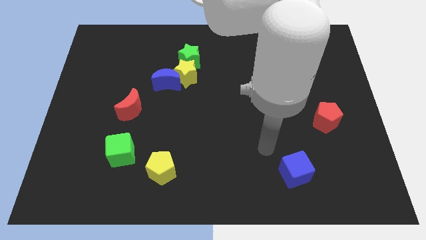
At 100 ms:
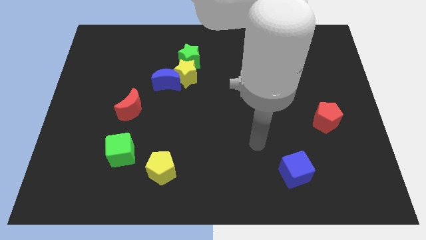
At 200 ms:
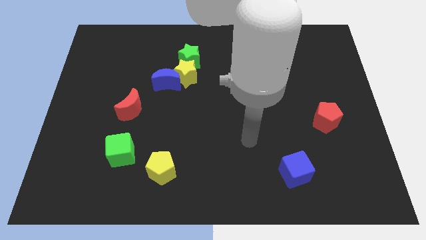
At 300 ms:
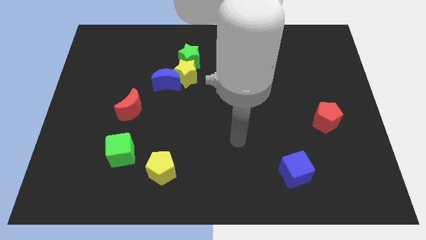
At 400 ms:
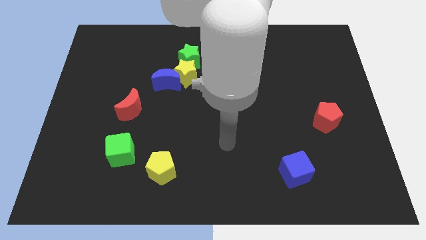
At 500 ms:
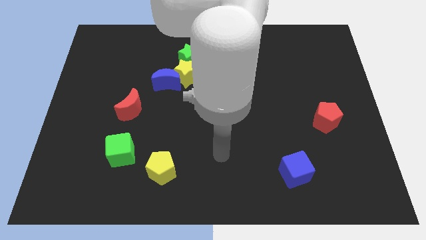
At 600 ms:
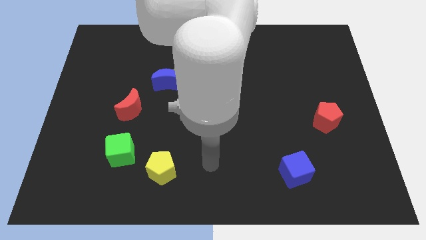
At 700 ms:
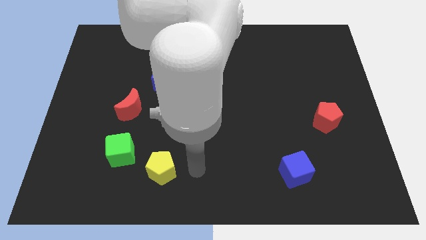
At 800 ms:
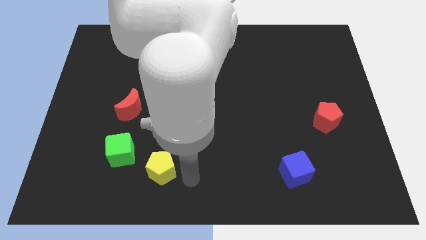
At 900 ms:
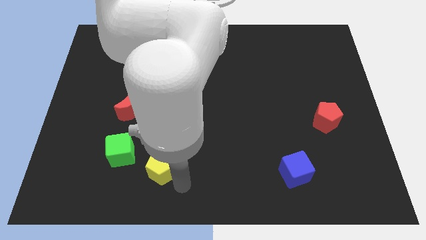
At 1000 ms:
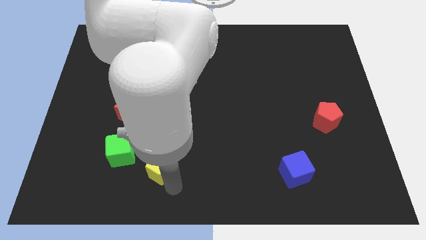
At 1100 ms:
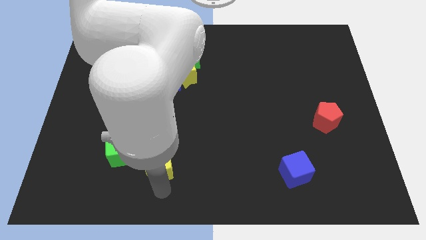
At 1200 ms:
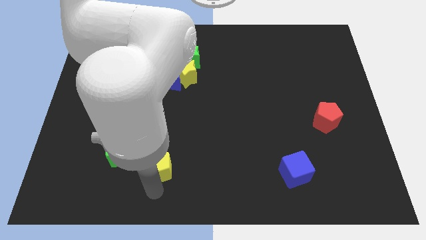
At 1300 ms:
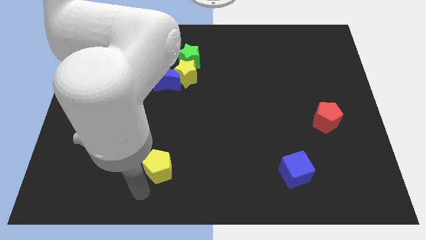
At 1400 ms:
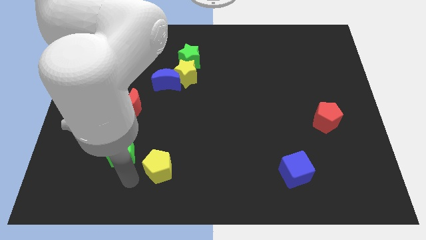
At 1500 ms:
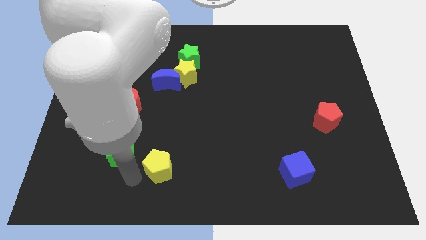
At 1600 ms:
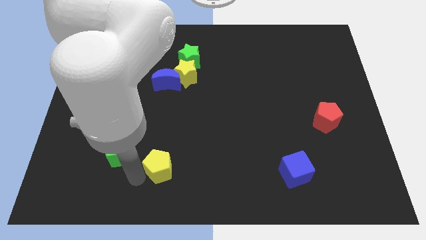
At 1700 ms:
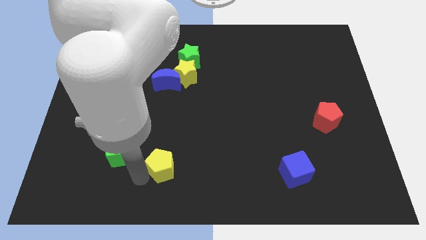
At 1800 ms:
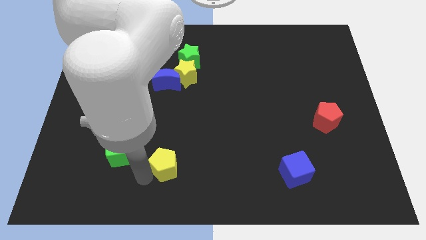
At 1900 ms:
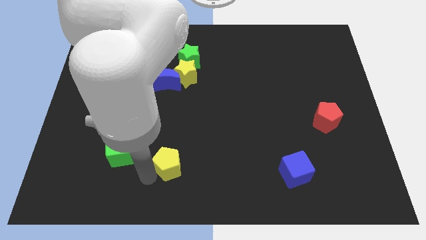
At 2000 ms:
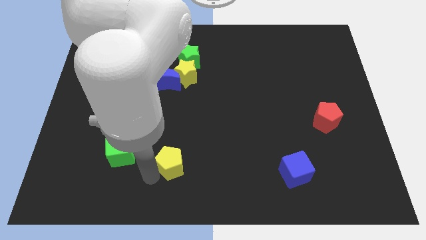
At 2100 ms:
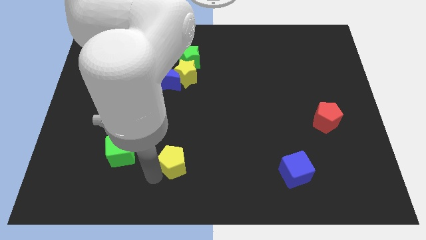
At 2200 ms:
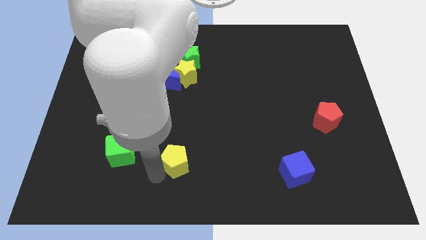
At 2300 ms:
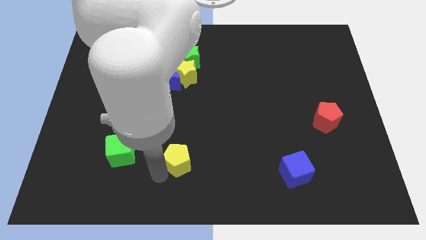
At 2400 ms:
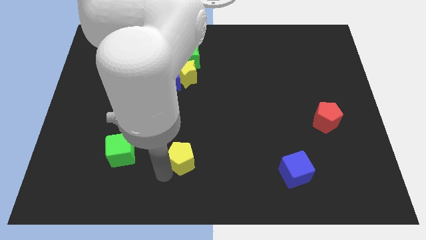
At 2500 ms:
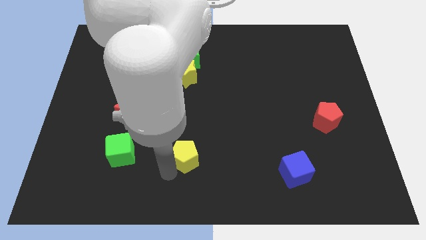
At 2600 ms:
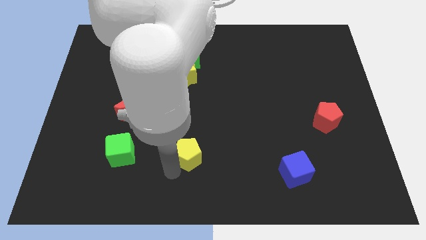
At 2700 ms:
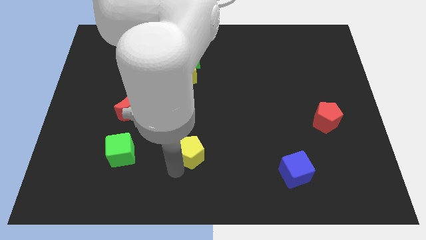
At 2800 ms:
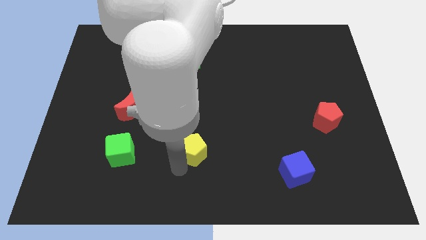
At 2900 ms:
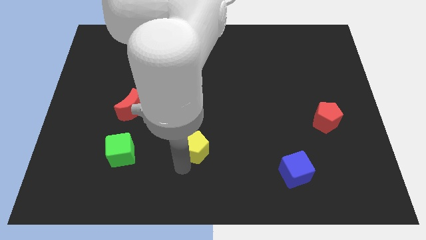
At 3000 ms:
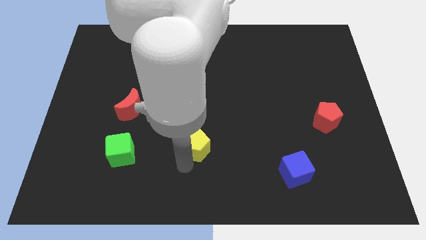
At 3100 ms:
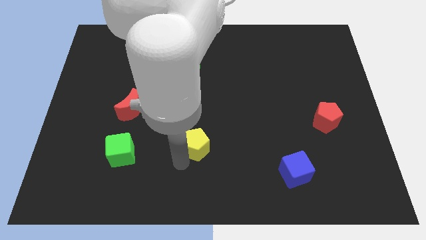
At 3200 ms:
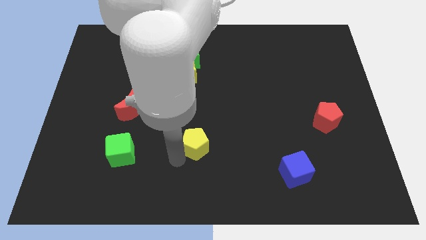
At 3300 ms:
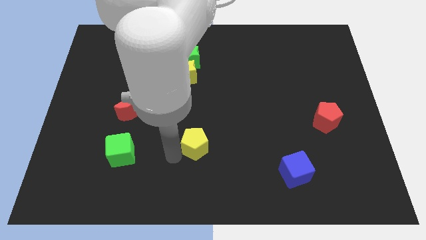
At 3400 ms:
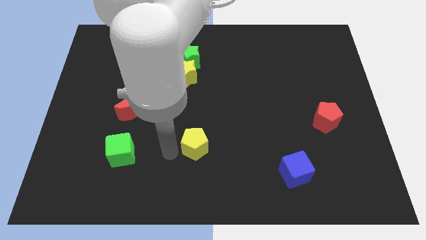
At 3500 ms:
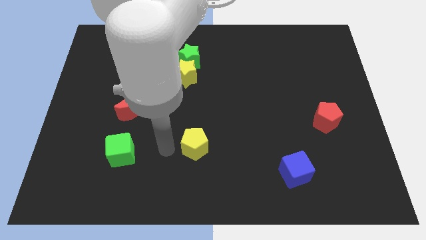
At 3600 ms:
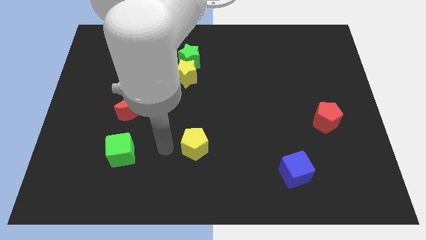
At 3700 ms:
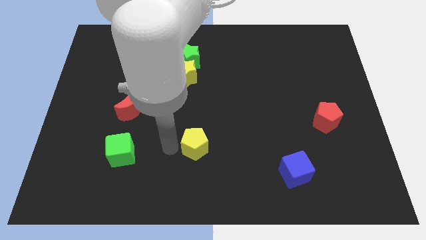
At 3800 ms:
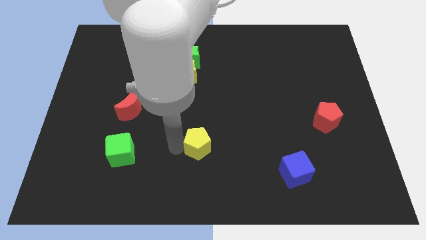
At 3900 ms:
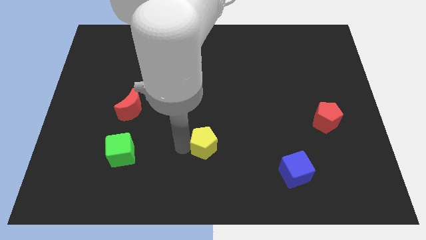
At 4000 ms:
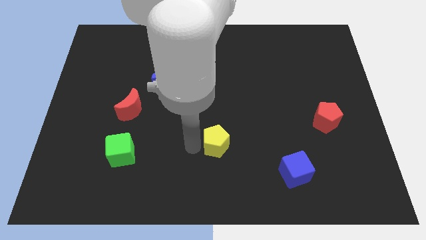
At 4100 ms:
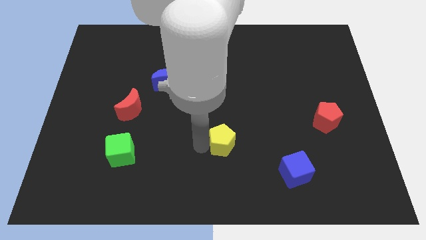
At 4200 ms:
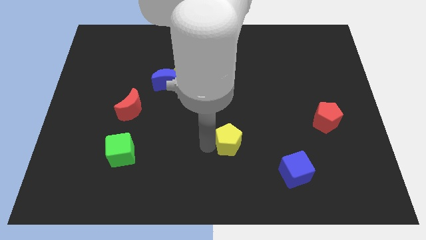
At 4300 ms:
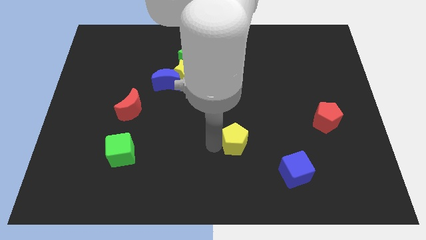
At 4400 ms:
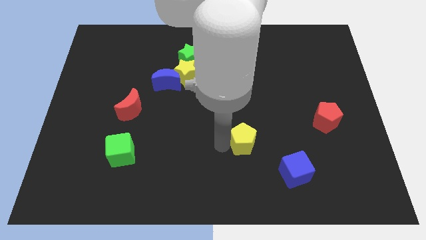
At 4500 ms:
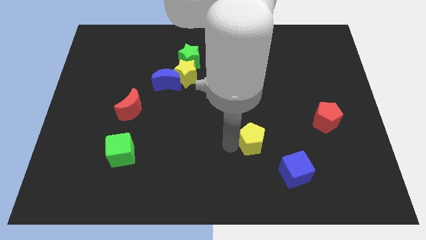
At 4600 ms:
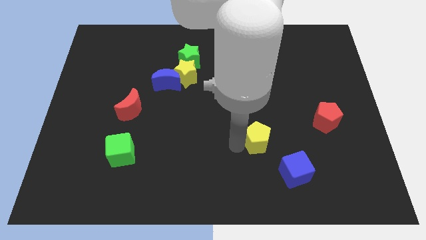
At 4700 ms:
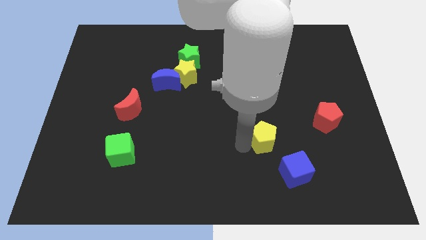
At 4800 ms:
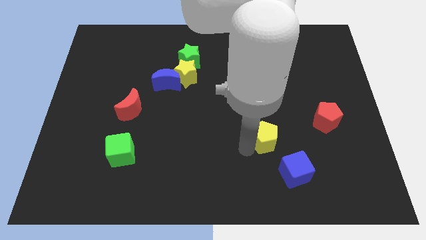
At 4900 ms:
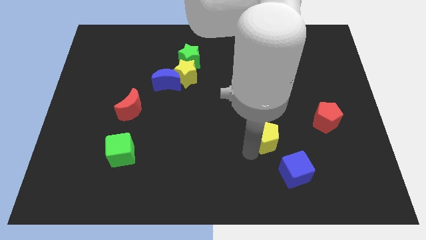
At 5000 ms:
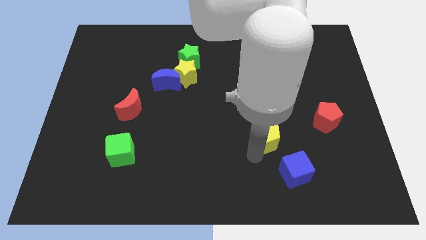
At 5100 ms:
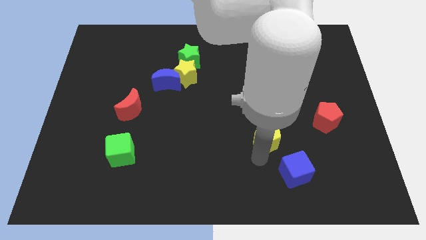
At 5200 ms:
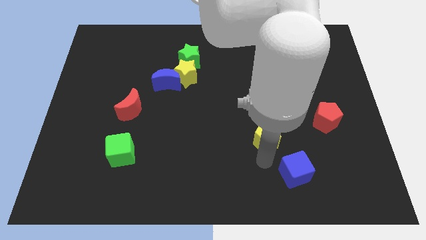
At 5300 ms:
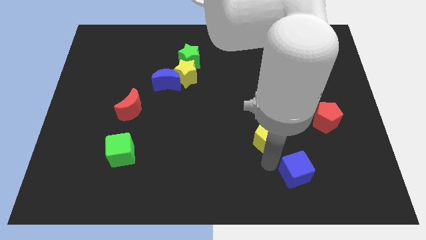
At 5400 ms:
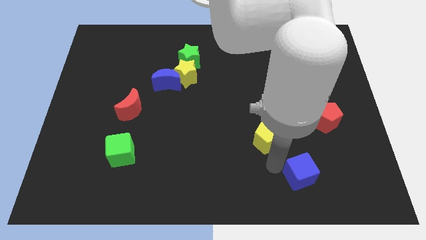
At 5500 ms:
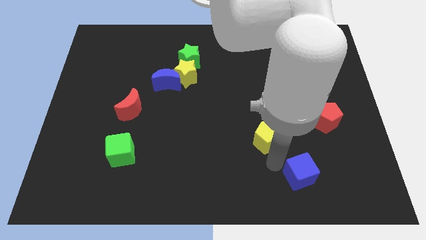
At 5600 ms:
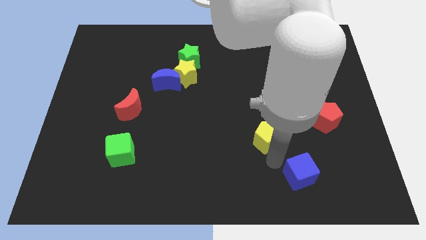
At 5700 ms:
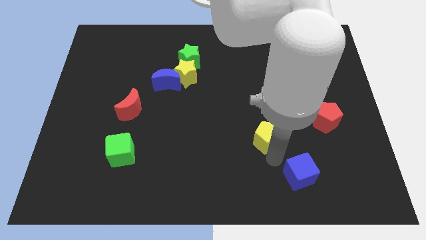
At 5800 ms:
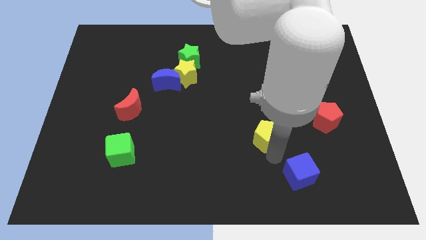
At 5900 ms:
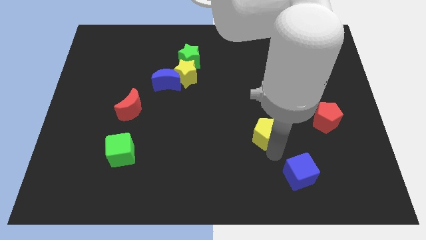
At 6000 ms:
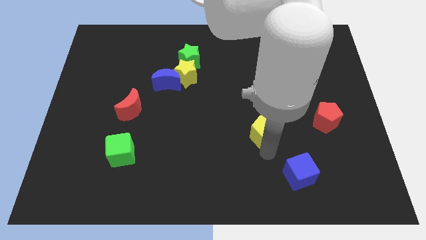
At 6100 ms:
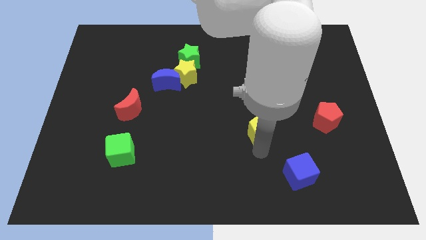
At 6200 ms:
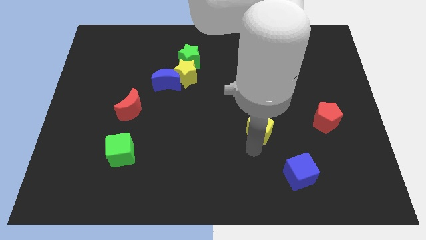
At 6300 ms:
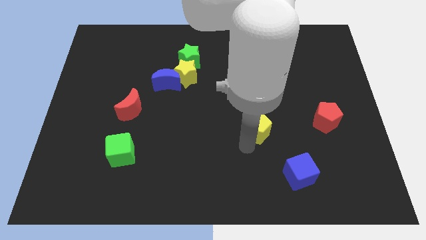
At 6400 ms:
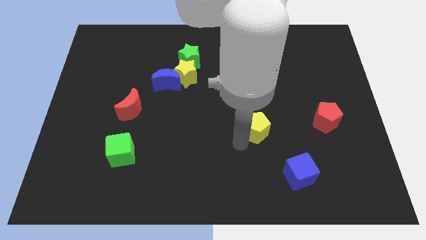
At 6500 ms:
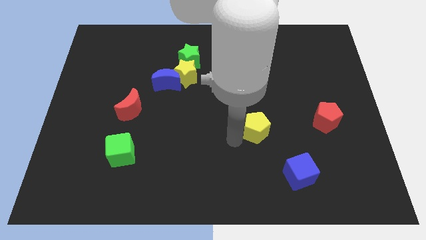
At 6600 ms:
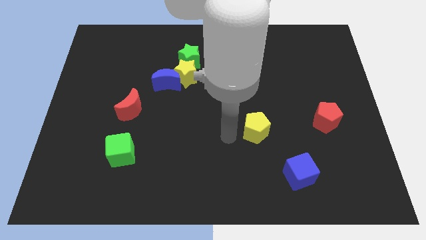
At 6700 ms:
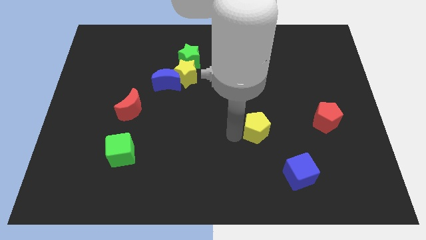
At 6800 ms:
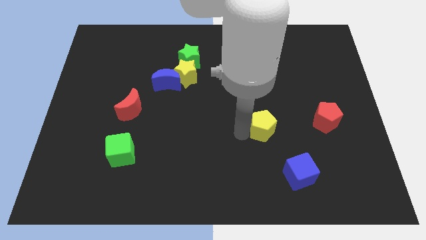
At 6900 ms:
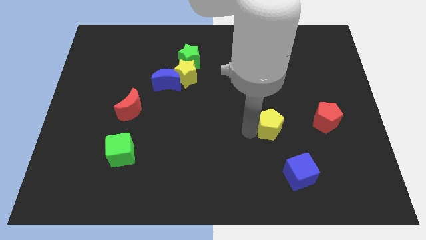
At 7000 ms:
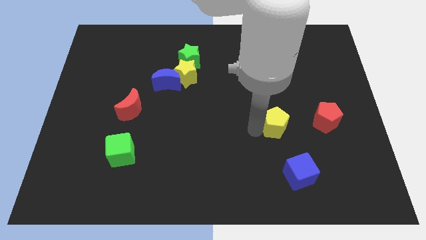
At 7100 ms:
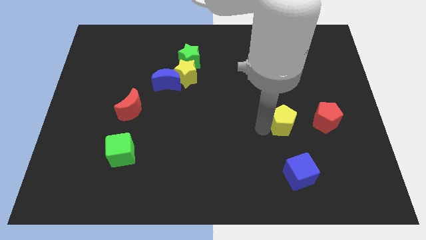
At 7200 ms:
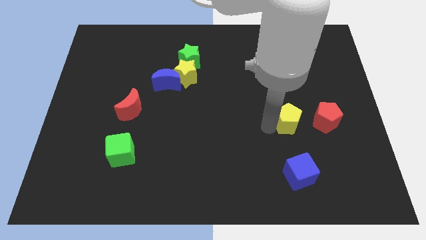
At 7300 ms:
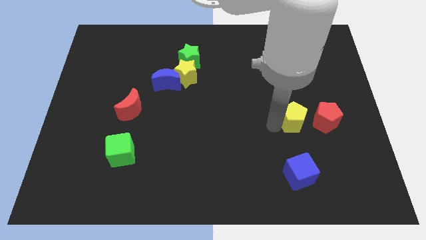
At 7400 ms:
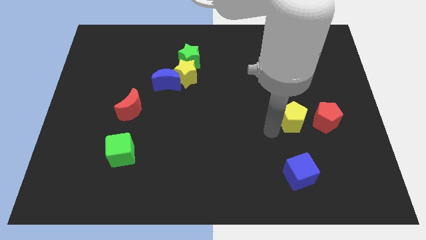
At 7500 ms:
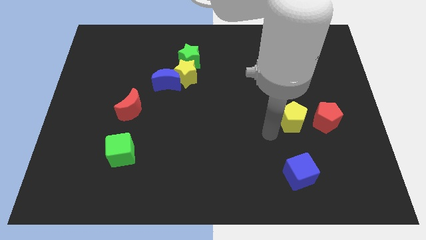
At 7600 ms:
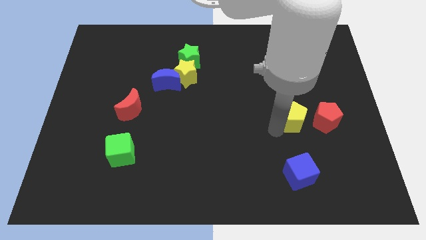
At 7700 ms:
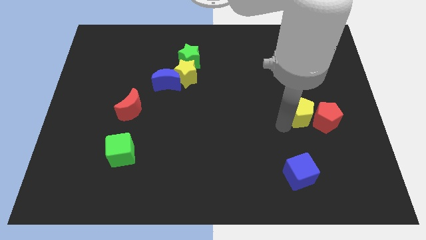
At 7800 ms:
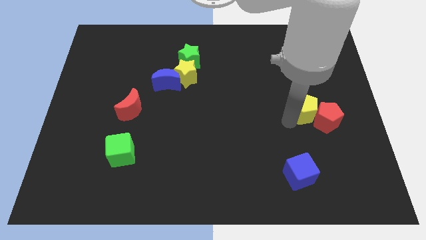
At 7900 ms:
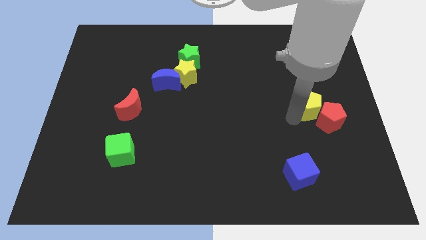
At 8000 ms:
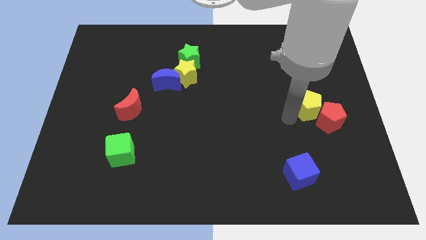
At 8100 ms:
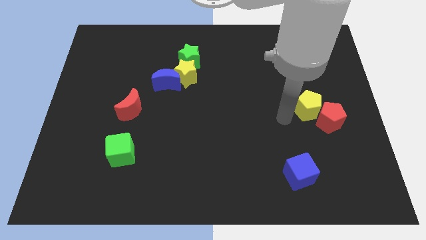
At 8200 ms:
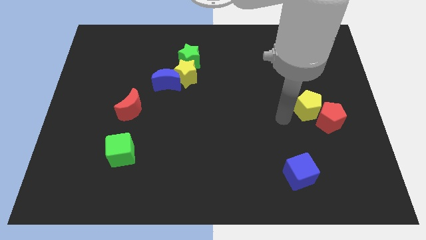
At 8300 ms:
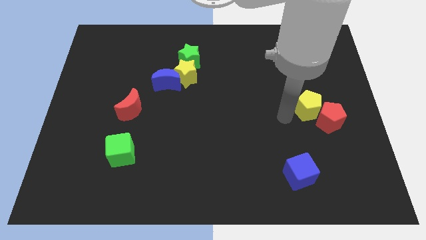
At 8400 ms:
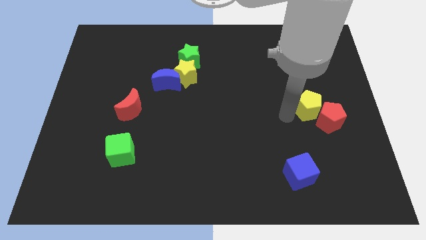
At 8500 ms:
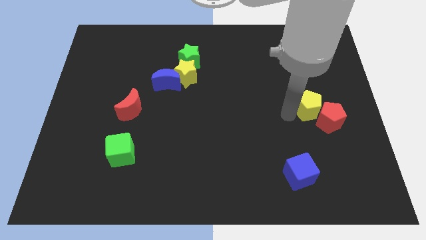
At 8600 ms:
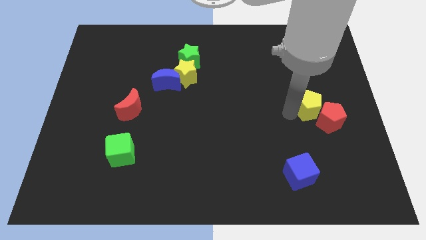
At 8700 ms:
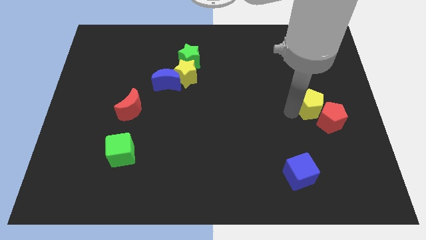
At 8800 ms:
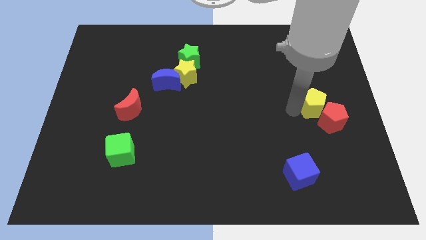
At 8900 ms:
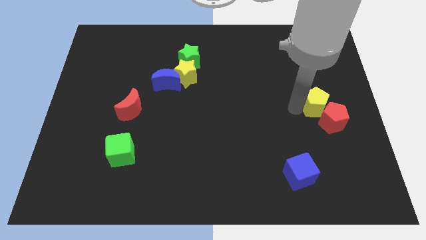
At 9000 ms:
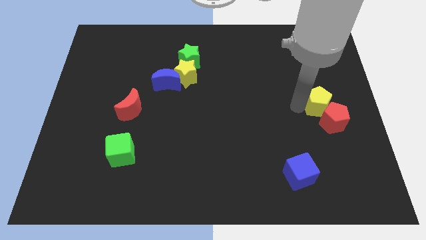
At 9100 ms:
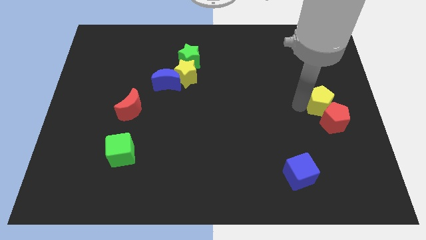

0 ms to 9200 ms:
put the yellow pentagon to the center right
